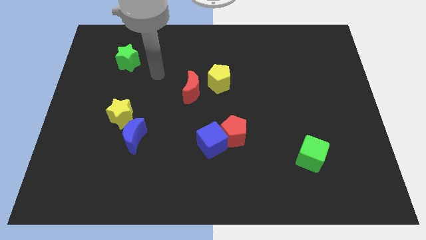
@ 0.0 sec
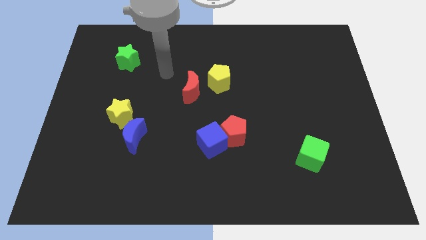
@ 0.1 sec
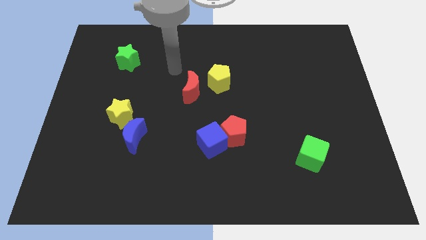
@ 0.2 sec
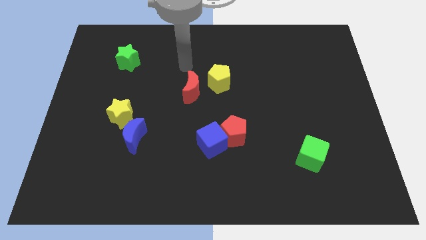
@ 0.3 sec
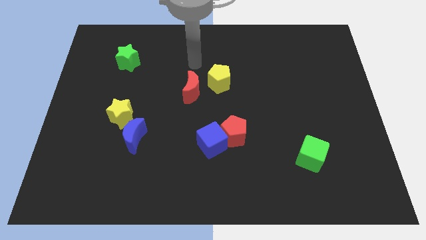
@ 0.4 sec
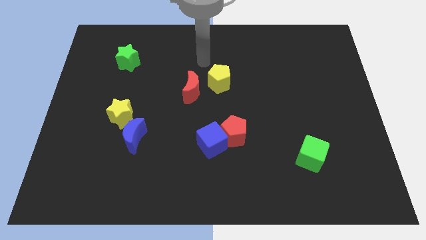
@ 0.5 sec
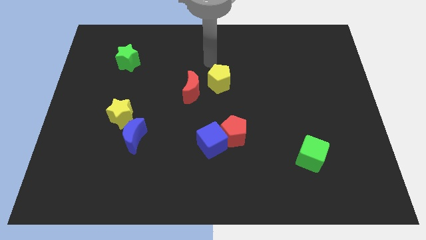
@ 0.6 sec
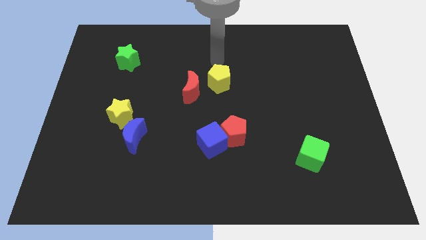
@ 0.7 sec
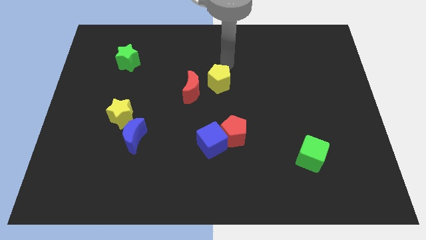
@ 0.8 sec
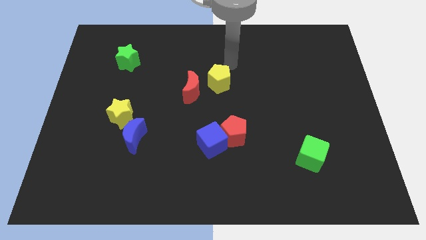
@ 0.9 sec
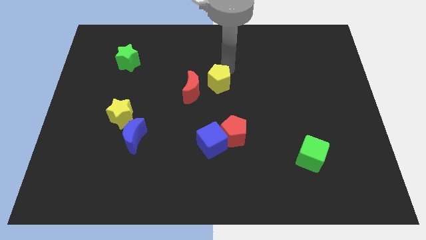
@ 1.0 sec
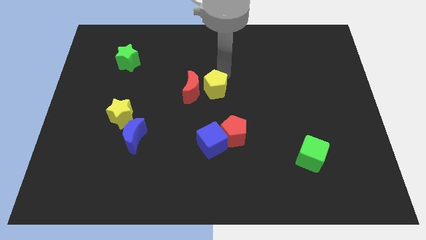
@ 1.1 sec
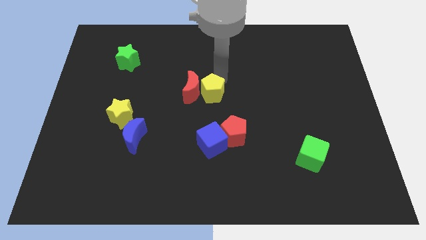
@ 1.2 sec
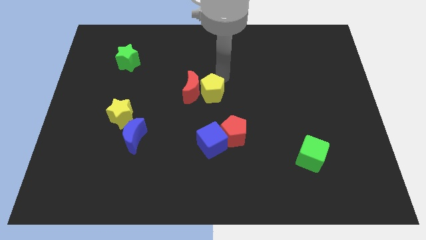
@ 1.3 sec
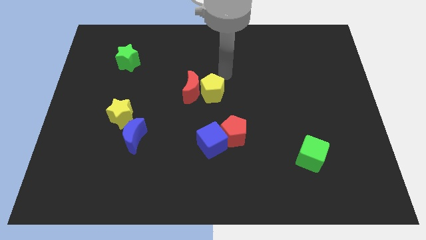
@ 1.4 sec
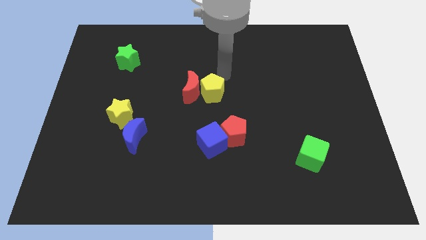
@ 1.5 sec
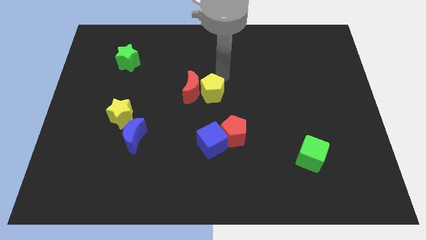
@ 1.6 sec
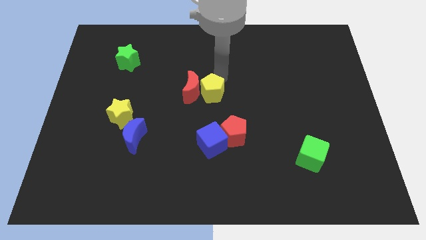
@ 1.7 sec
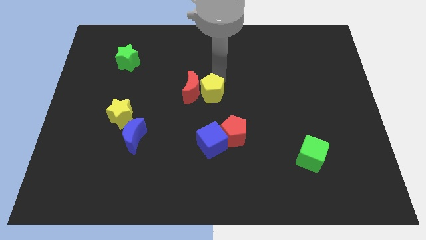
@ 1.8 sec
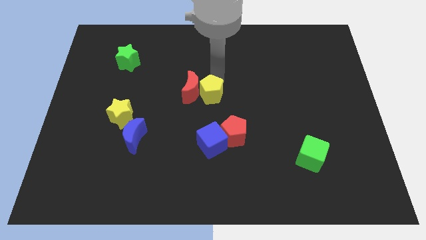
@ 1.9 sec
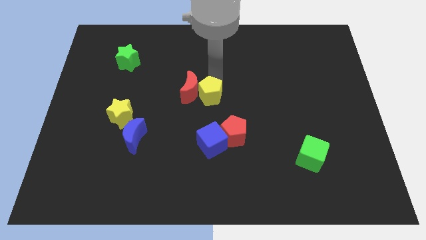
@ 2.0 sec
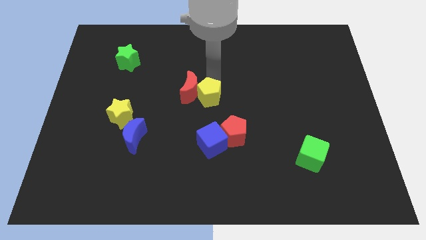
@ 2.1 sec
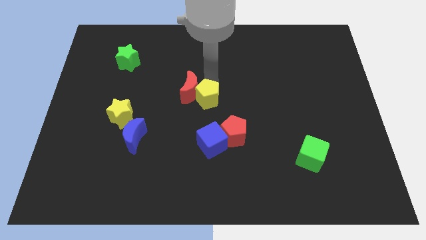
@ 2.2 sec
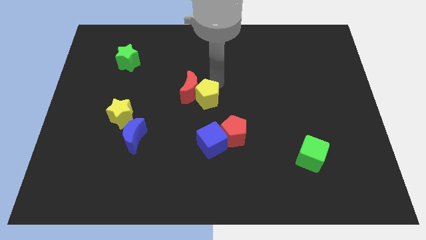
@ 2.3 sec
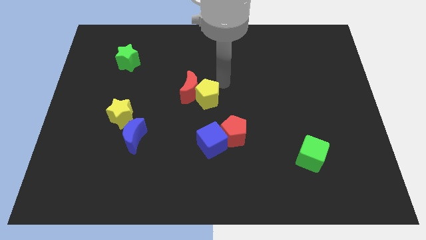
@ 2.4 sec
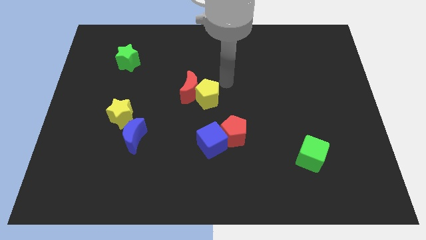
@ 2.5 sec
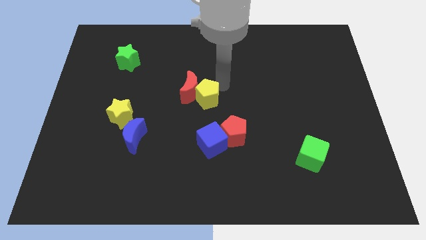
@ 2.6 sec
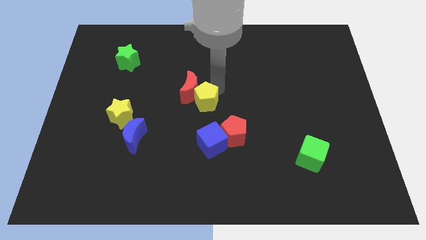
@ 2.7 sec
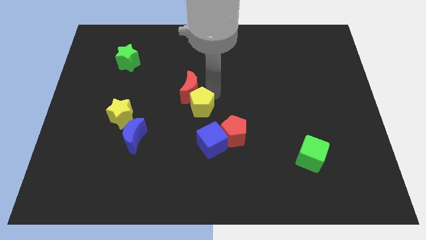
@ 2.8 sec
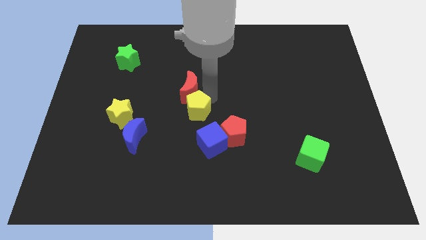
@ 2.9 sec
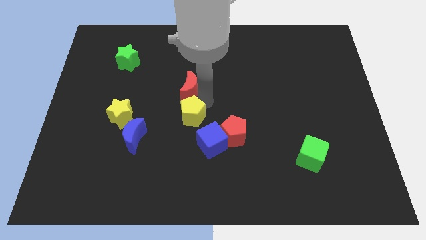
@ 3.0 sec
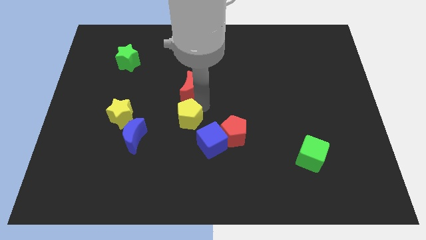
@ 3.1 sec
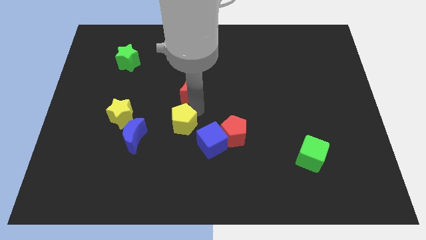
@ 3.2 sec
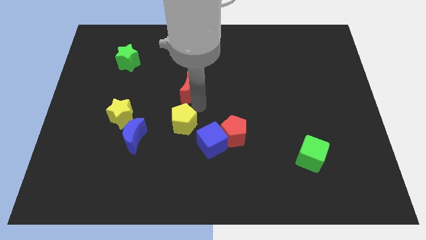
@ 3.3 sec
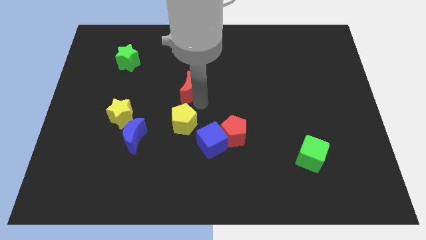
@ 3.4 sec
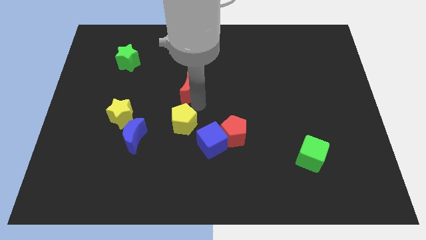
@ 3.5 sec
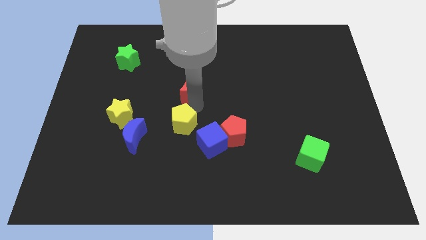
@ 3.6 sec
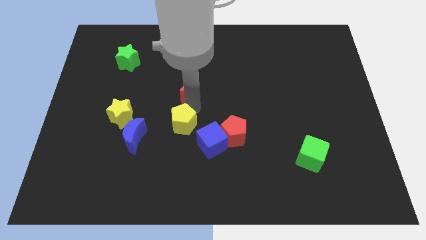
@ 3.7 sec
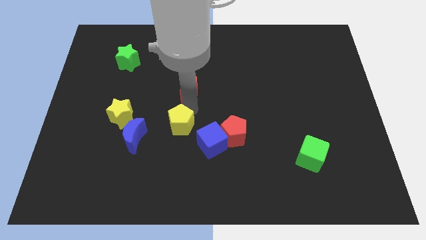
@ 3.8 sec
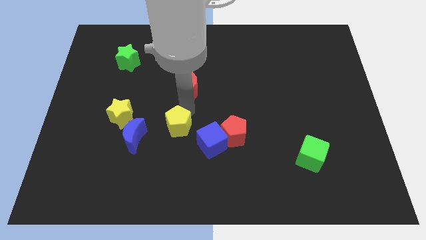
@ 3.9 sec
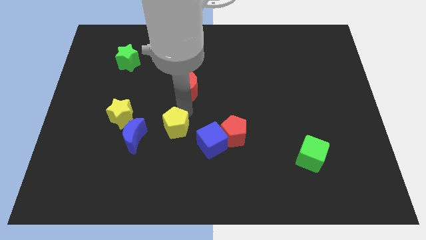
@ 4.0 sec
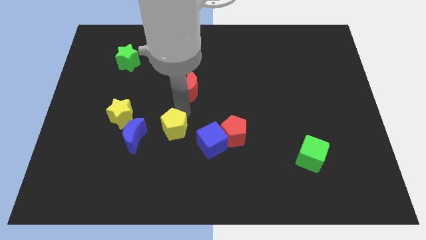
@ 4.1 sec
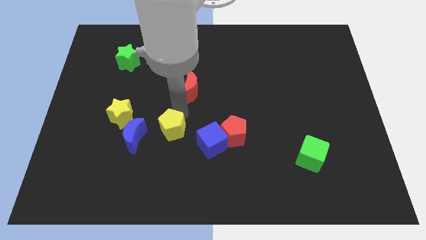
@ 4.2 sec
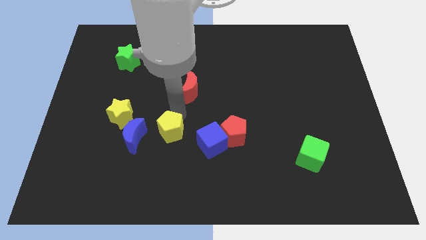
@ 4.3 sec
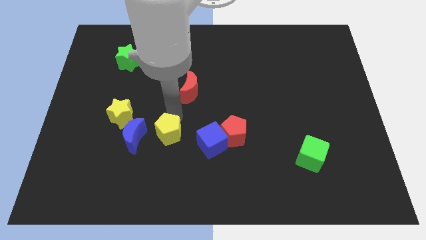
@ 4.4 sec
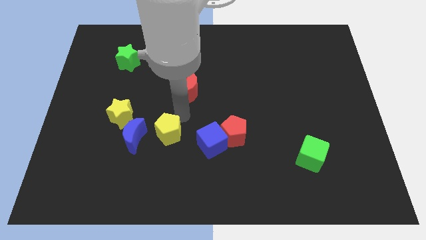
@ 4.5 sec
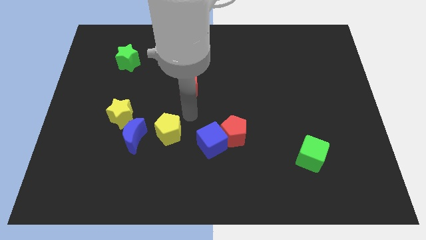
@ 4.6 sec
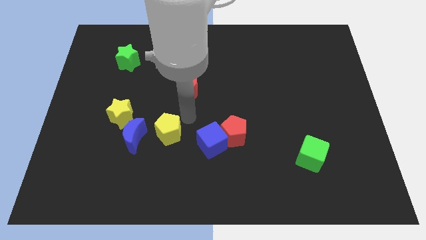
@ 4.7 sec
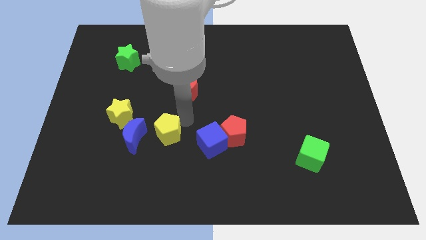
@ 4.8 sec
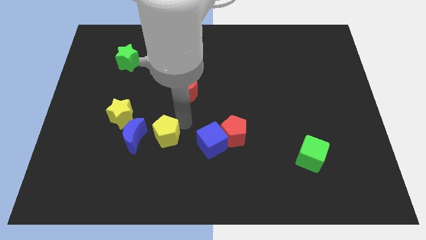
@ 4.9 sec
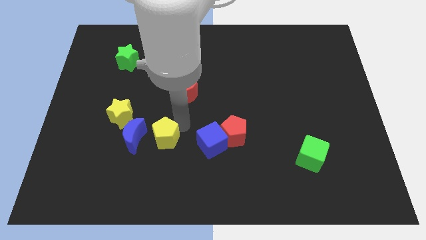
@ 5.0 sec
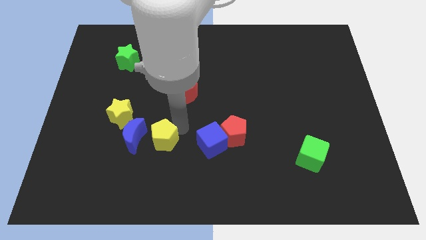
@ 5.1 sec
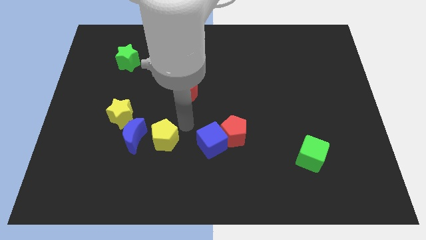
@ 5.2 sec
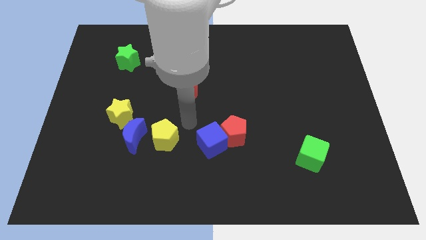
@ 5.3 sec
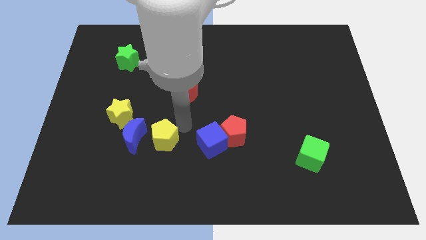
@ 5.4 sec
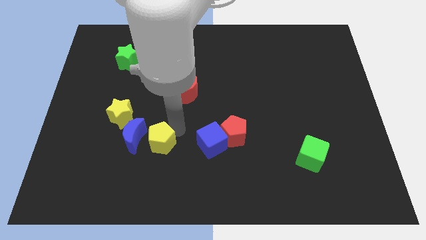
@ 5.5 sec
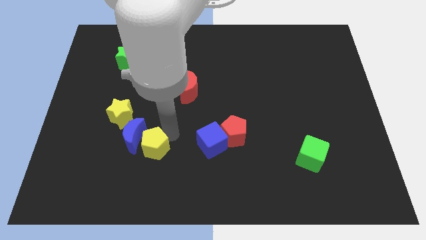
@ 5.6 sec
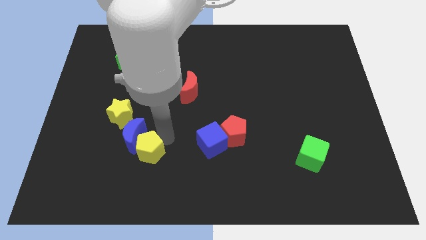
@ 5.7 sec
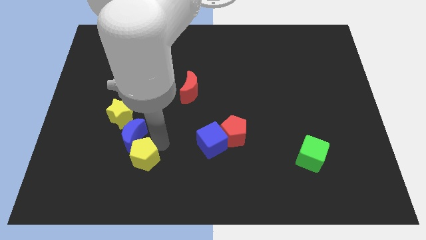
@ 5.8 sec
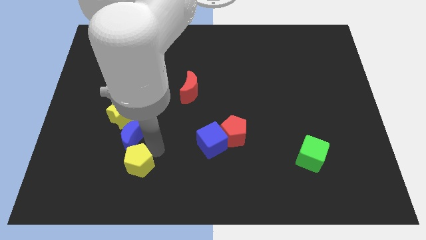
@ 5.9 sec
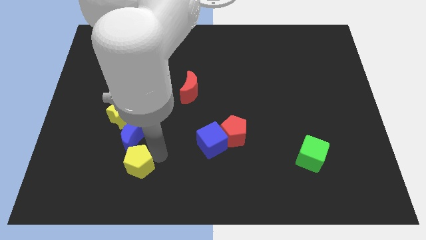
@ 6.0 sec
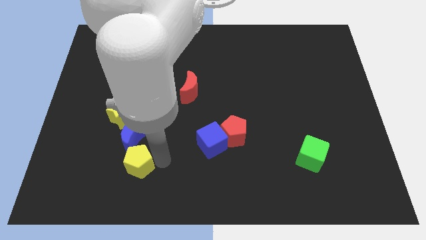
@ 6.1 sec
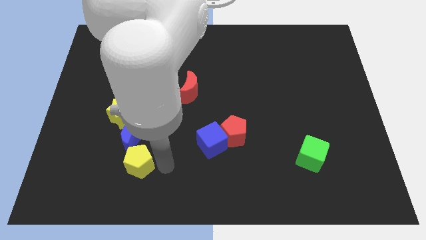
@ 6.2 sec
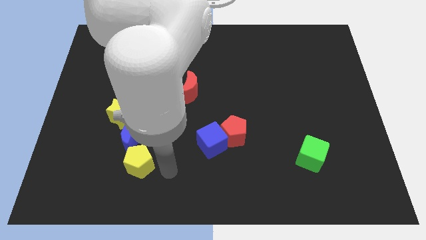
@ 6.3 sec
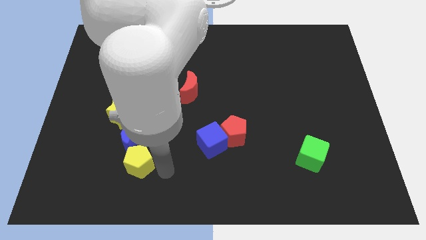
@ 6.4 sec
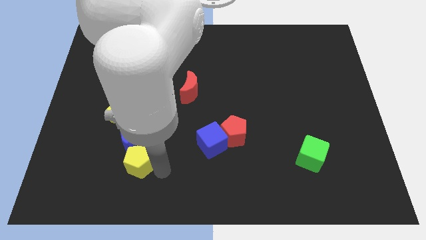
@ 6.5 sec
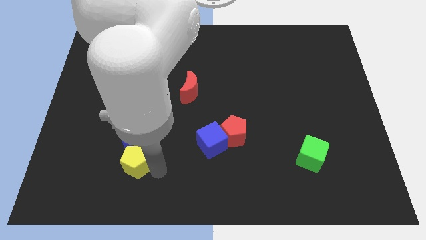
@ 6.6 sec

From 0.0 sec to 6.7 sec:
push the yellow pentagon below the yellow star
